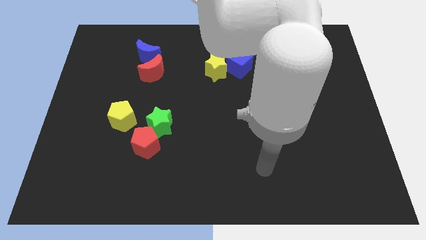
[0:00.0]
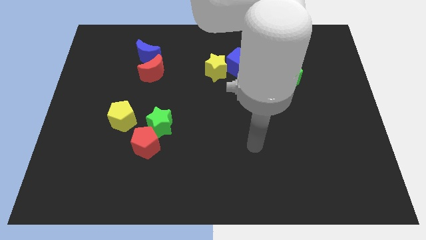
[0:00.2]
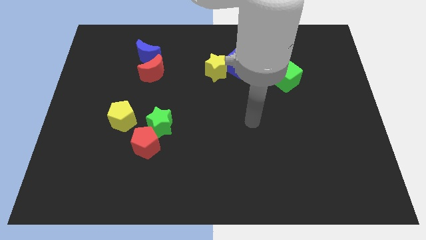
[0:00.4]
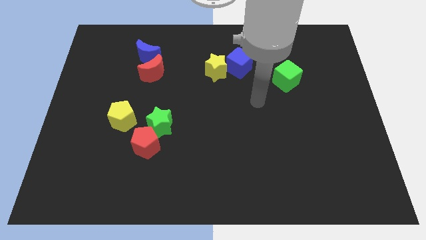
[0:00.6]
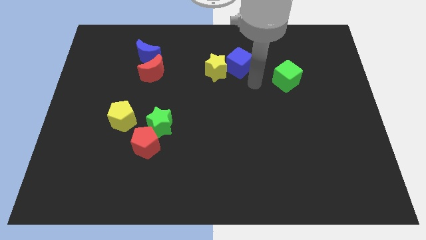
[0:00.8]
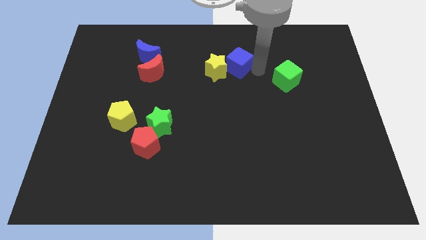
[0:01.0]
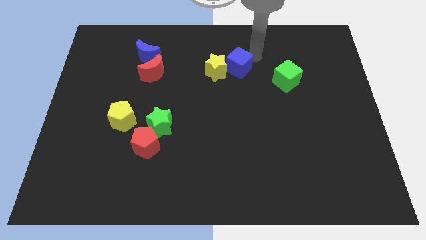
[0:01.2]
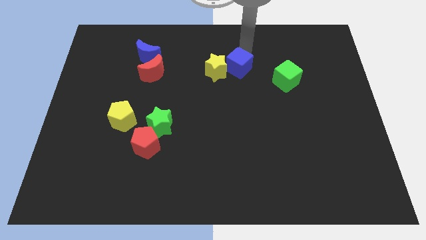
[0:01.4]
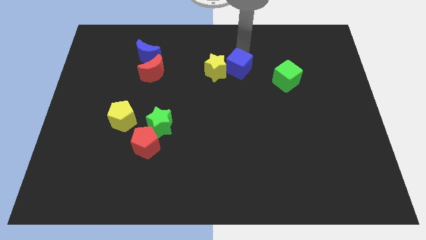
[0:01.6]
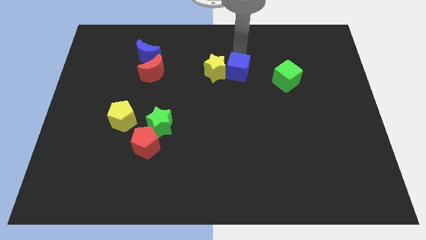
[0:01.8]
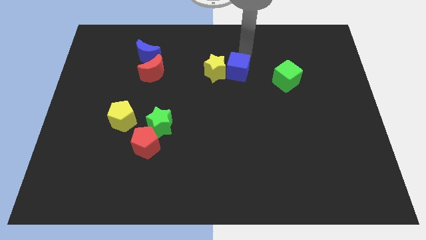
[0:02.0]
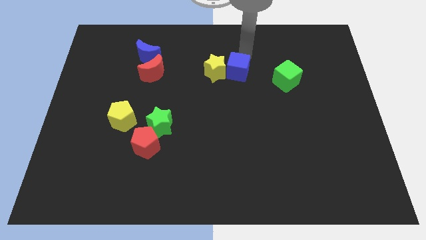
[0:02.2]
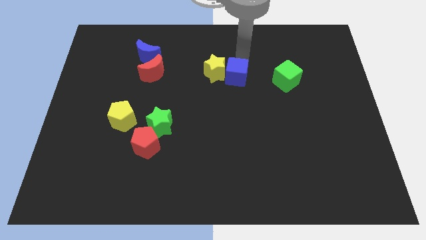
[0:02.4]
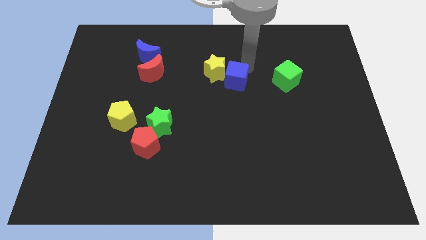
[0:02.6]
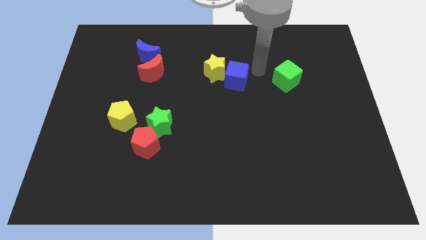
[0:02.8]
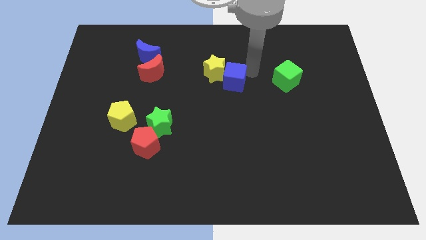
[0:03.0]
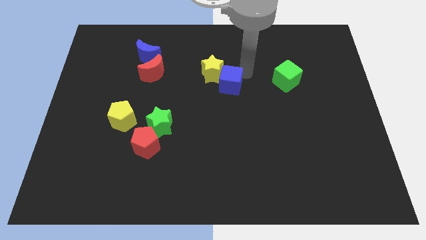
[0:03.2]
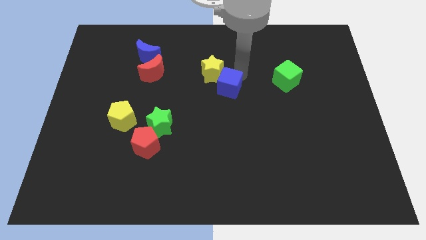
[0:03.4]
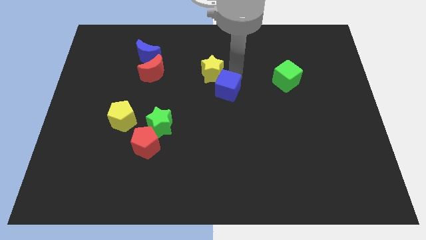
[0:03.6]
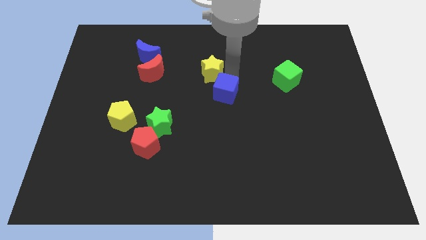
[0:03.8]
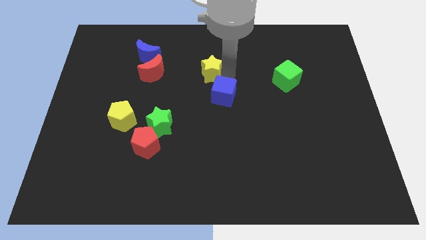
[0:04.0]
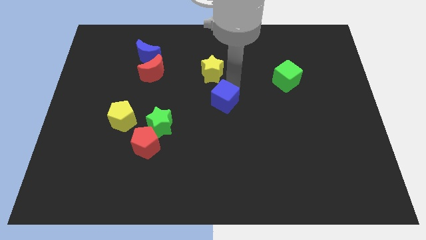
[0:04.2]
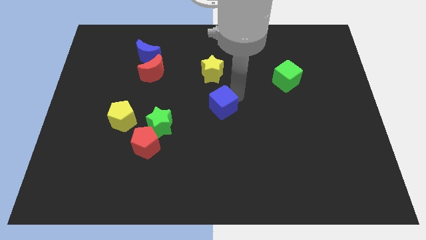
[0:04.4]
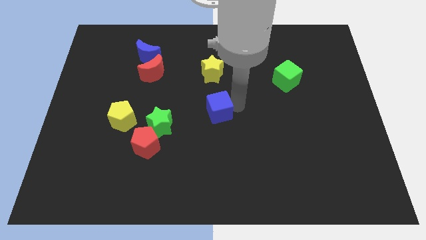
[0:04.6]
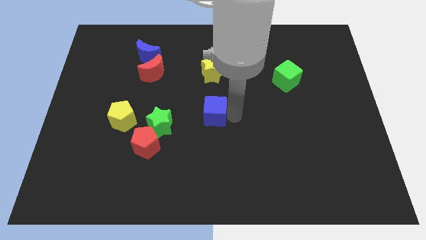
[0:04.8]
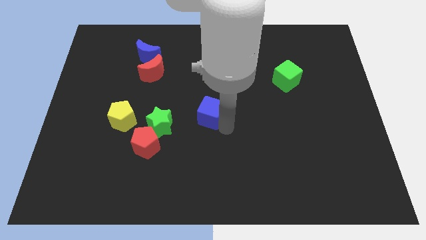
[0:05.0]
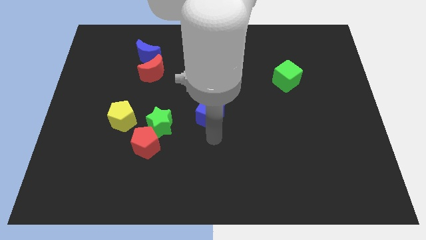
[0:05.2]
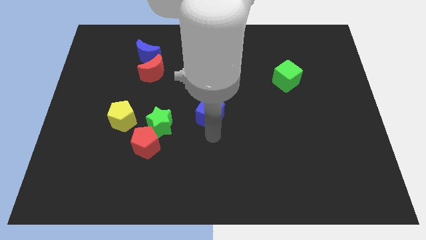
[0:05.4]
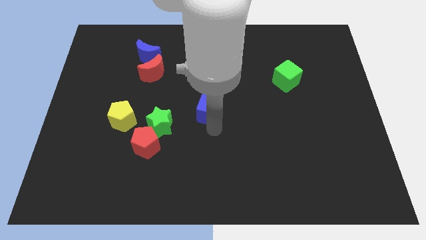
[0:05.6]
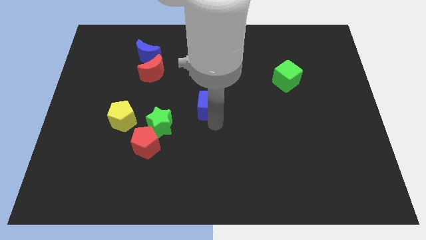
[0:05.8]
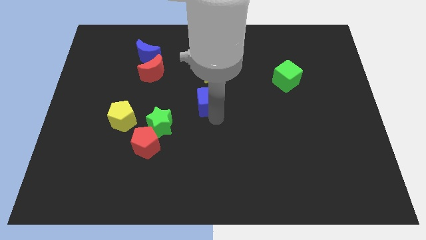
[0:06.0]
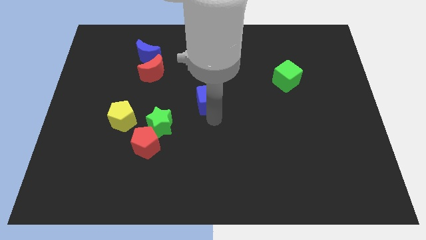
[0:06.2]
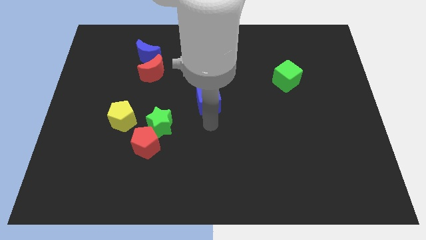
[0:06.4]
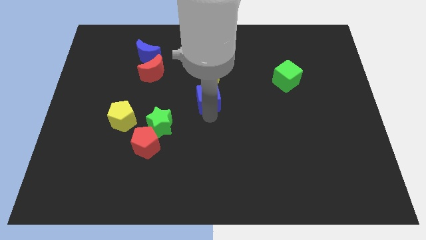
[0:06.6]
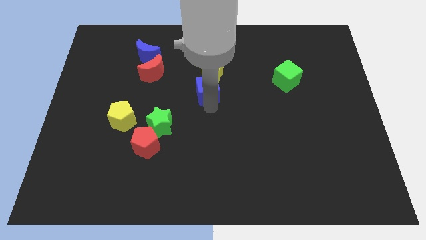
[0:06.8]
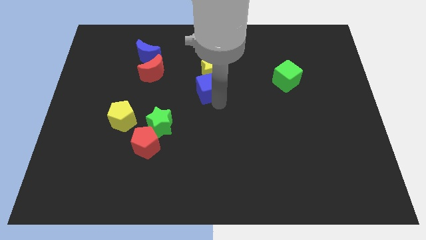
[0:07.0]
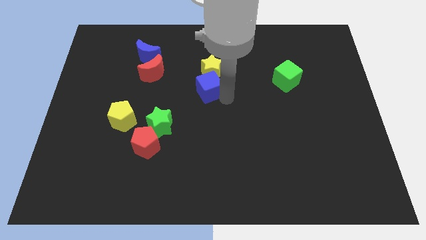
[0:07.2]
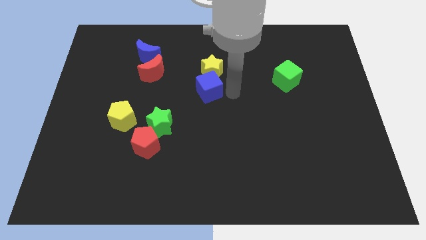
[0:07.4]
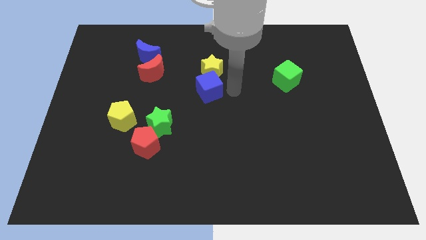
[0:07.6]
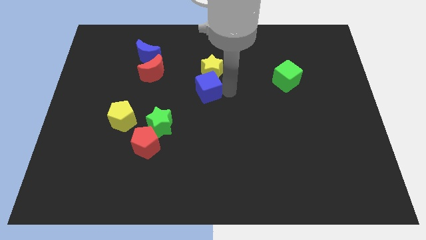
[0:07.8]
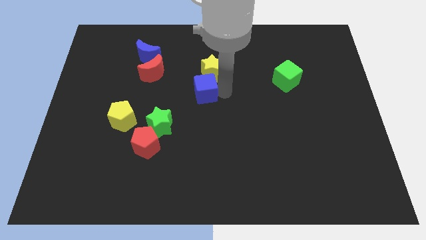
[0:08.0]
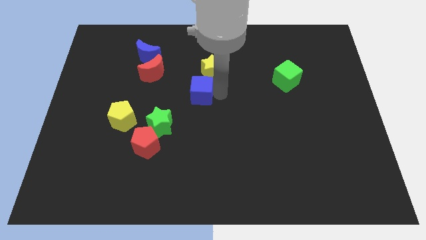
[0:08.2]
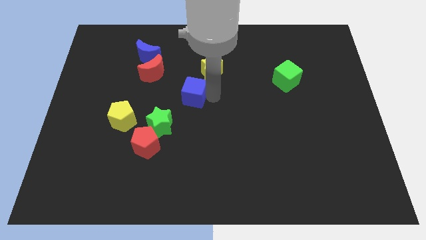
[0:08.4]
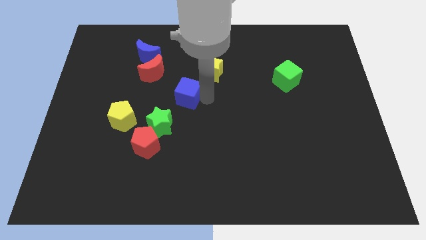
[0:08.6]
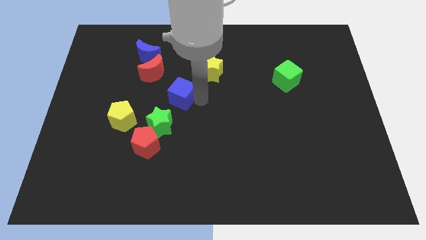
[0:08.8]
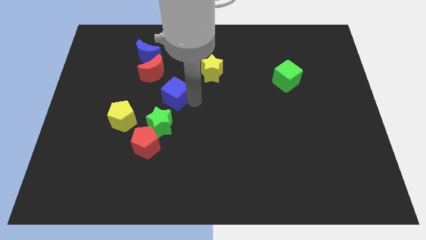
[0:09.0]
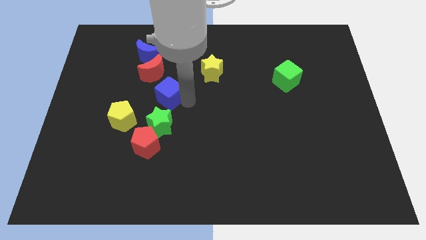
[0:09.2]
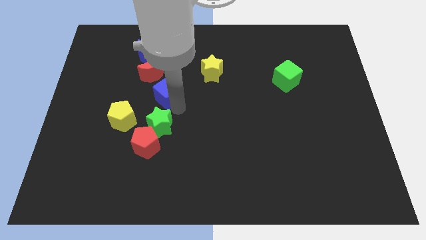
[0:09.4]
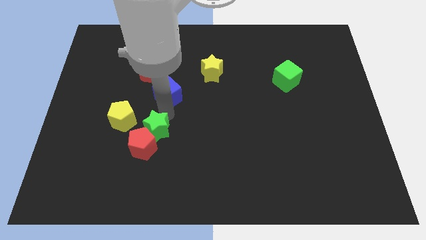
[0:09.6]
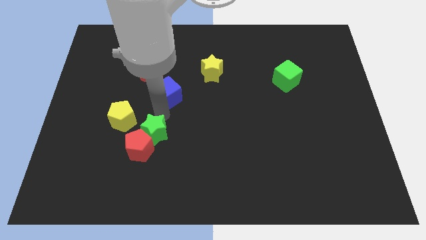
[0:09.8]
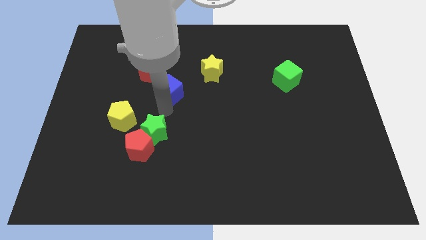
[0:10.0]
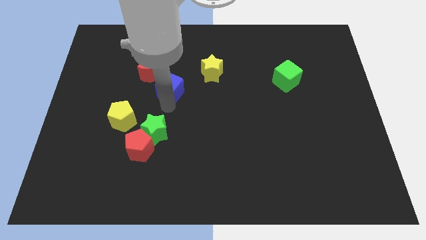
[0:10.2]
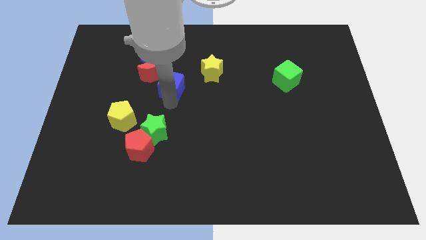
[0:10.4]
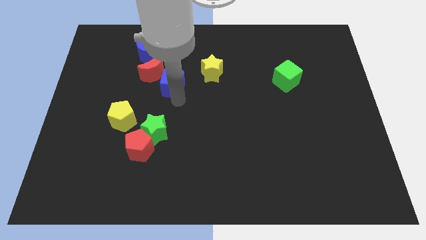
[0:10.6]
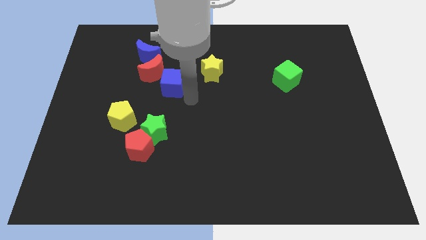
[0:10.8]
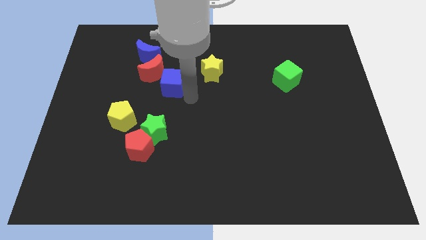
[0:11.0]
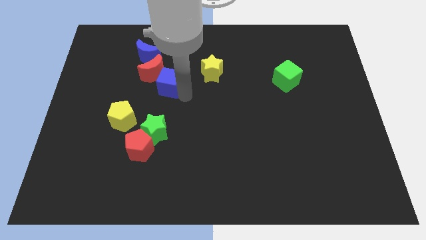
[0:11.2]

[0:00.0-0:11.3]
put the blue cube towards the red moon

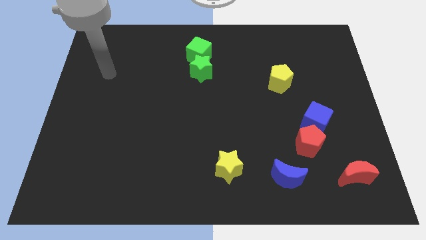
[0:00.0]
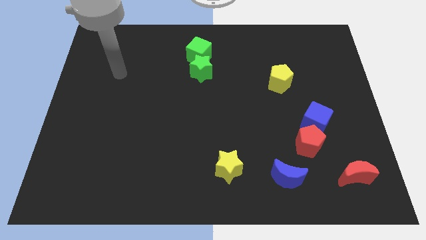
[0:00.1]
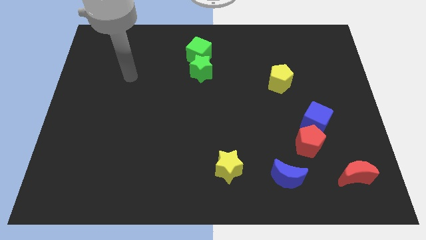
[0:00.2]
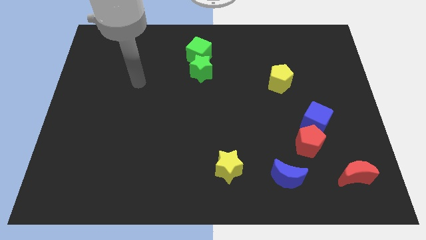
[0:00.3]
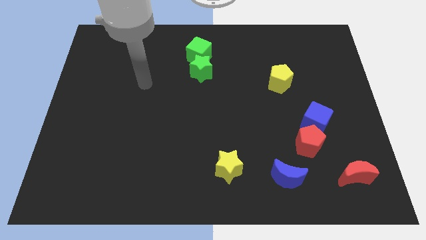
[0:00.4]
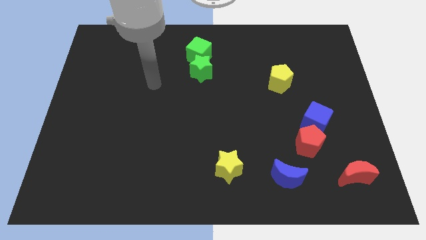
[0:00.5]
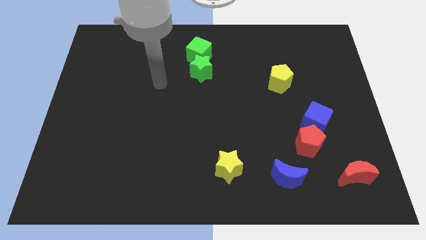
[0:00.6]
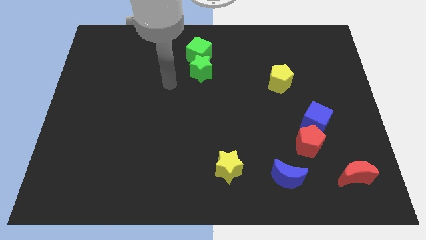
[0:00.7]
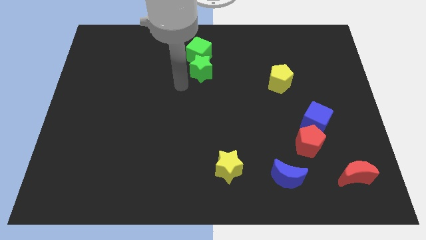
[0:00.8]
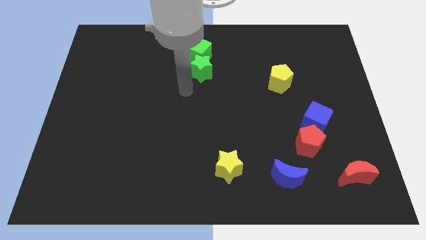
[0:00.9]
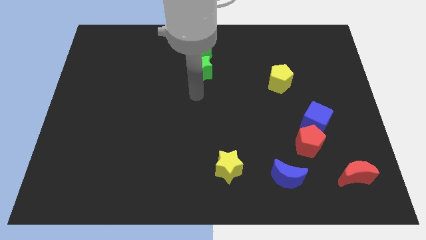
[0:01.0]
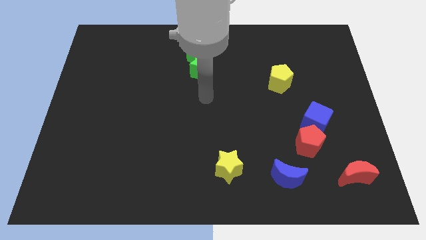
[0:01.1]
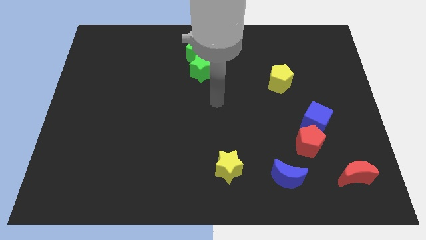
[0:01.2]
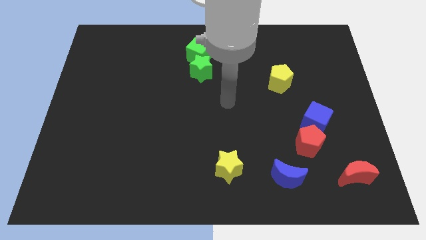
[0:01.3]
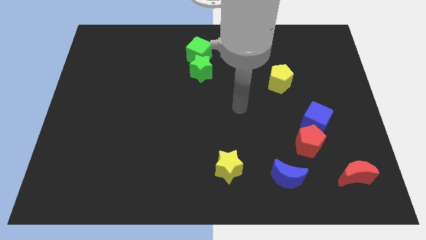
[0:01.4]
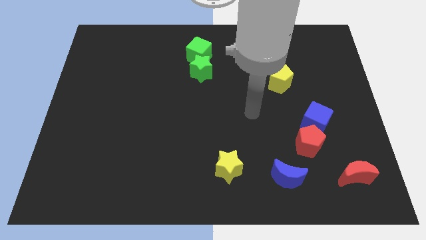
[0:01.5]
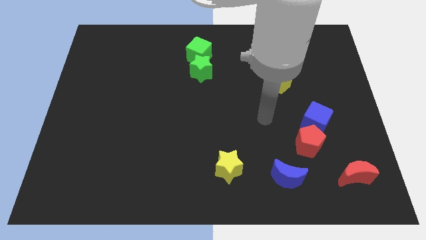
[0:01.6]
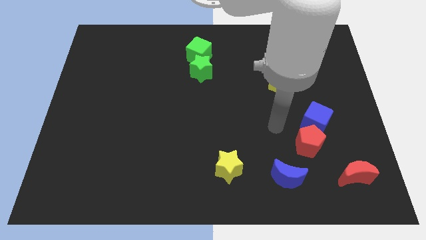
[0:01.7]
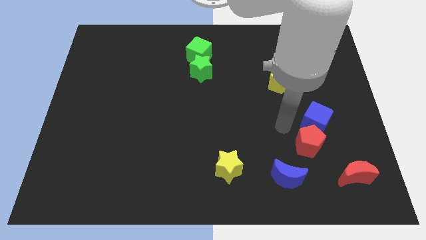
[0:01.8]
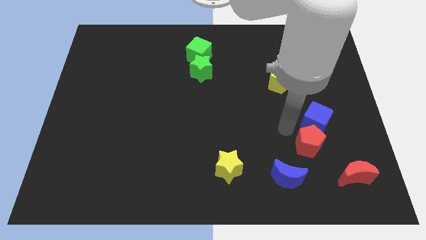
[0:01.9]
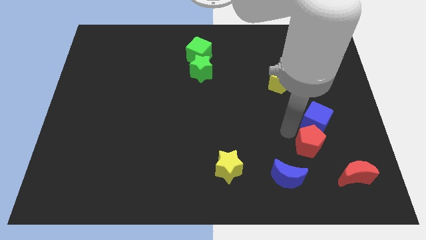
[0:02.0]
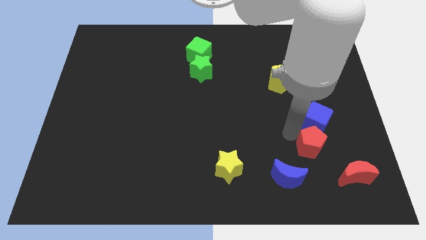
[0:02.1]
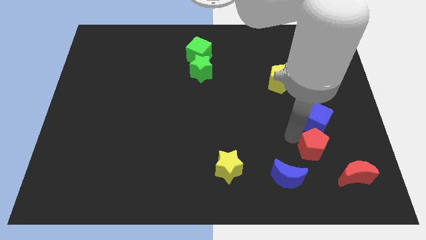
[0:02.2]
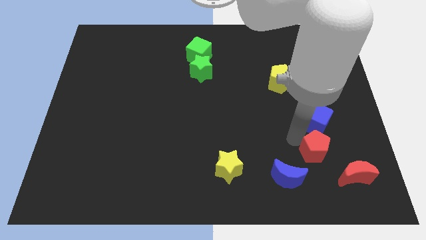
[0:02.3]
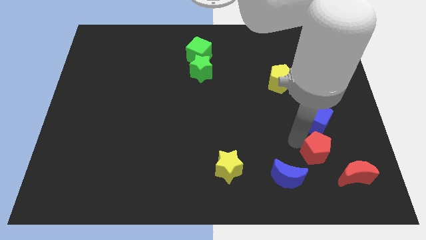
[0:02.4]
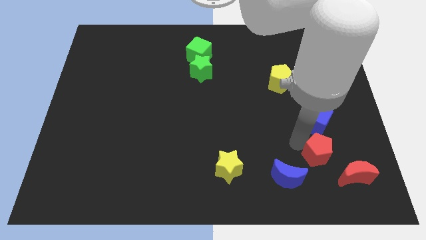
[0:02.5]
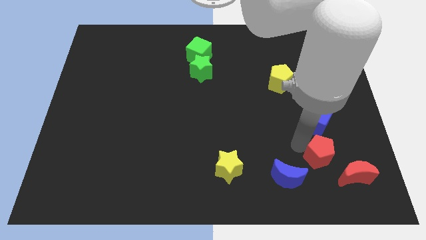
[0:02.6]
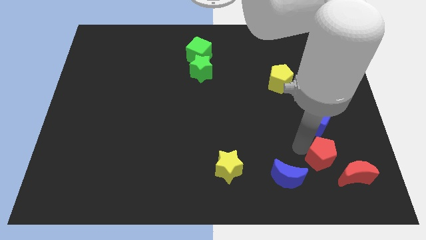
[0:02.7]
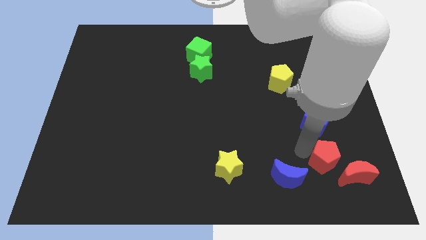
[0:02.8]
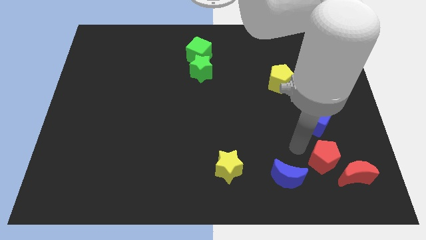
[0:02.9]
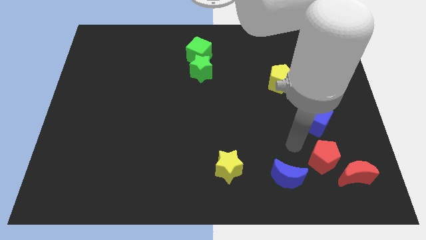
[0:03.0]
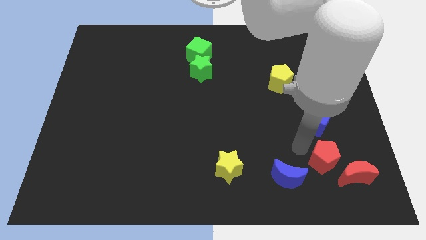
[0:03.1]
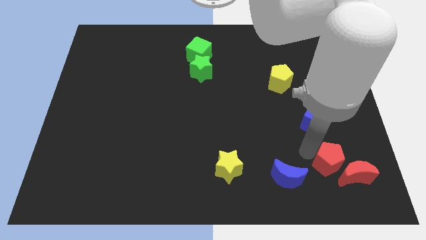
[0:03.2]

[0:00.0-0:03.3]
push the red pentagon next to the red moon
